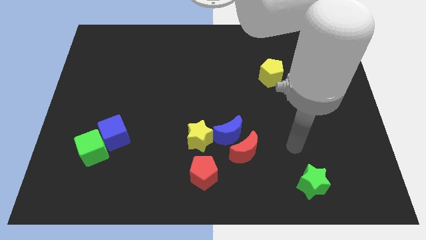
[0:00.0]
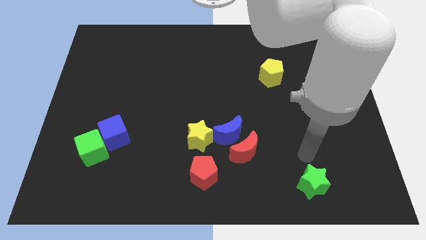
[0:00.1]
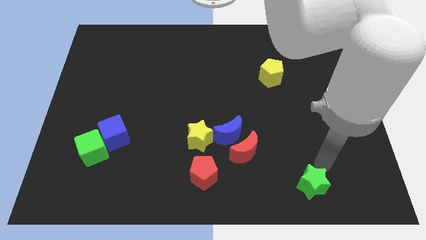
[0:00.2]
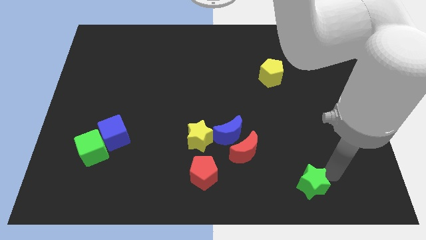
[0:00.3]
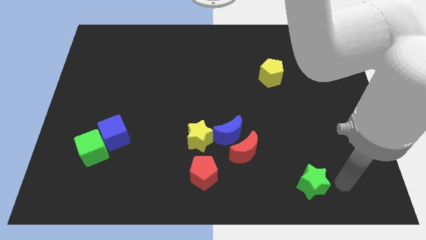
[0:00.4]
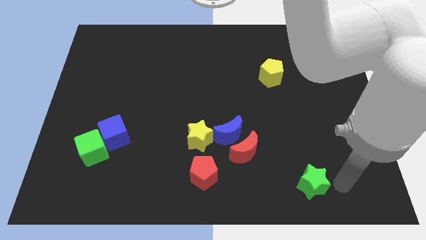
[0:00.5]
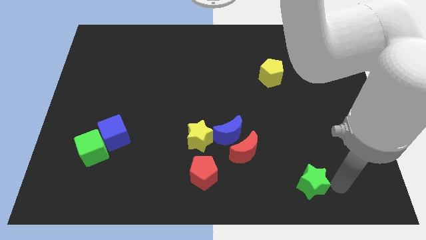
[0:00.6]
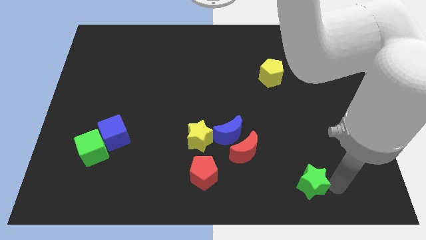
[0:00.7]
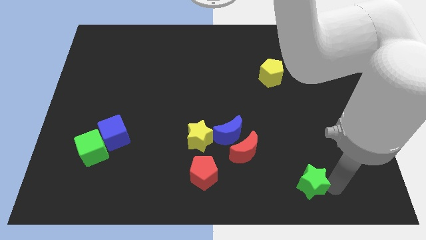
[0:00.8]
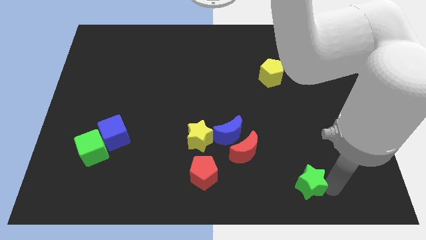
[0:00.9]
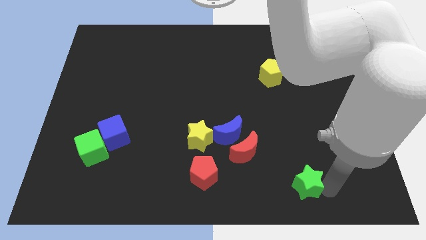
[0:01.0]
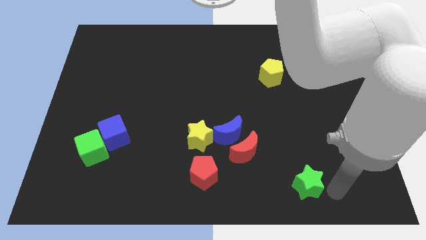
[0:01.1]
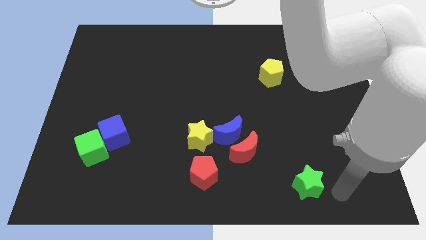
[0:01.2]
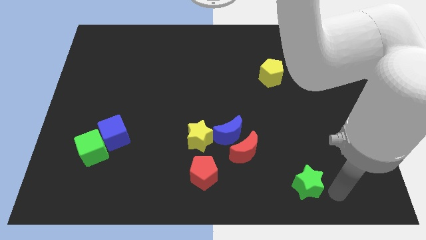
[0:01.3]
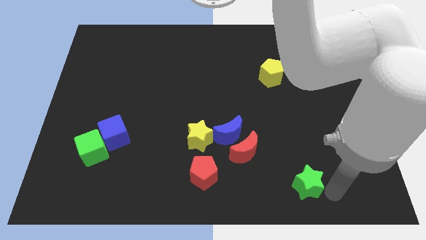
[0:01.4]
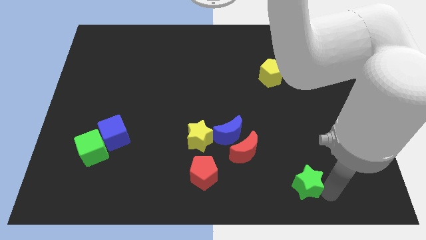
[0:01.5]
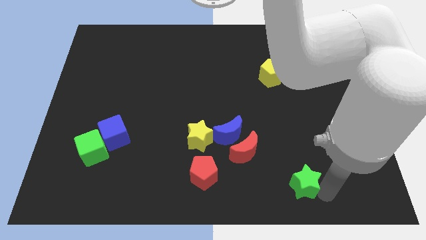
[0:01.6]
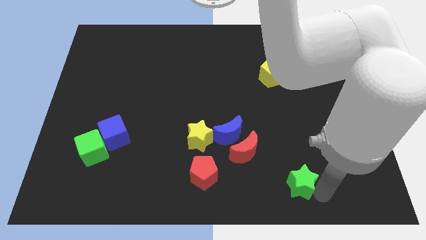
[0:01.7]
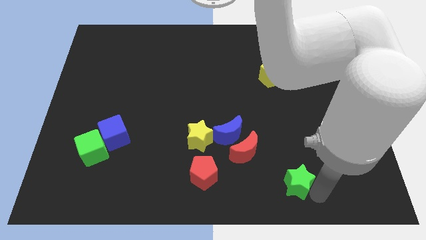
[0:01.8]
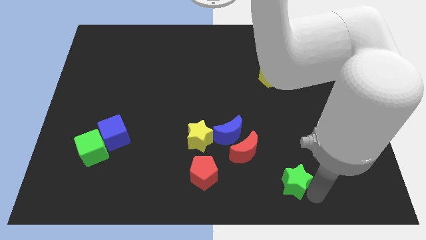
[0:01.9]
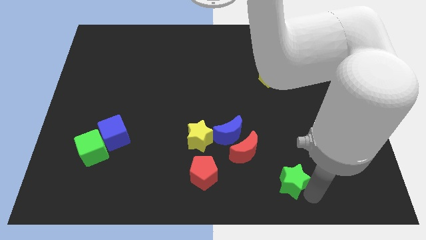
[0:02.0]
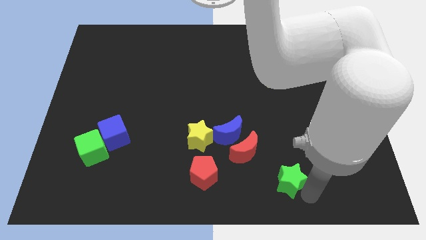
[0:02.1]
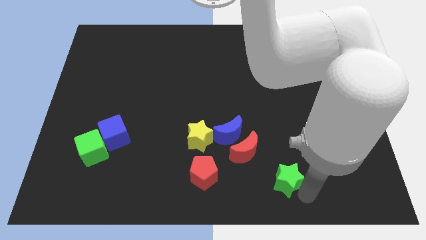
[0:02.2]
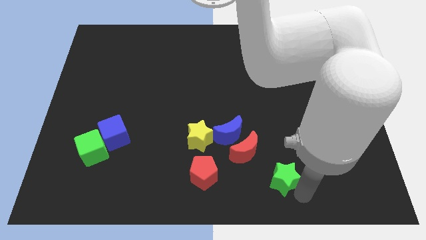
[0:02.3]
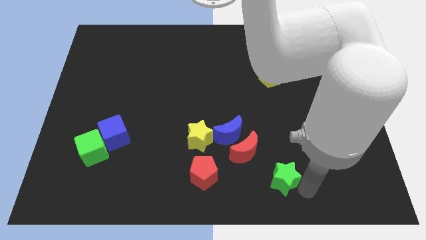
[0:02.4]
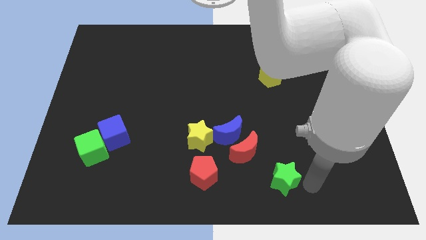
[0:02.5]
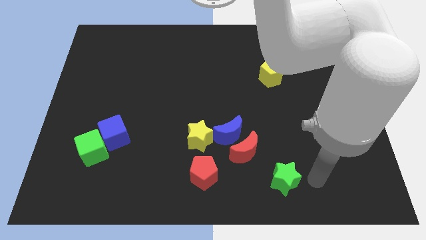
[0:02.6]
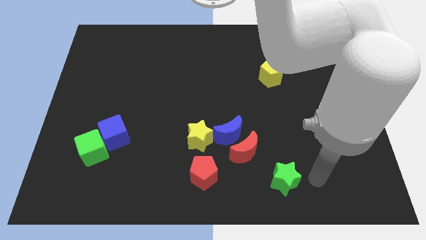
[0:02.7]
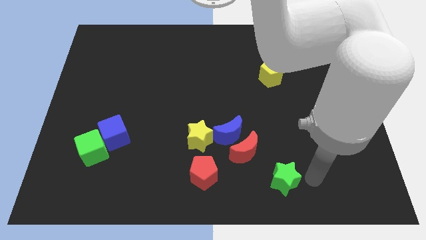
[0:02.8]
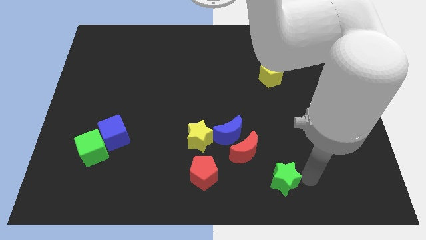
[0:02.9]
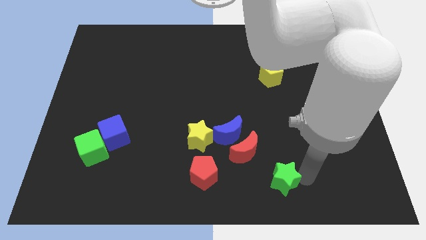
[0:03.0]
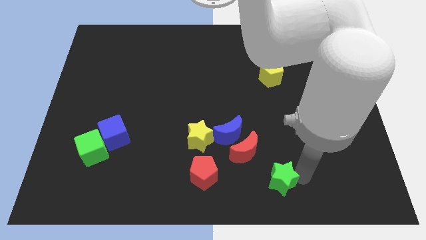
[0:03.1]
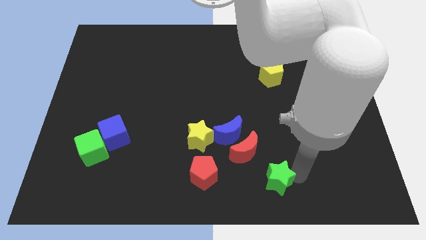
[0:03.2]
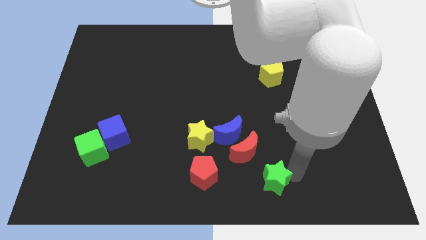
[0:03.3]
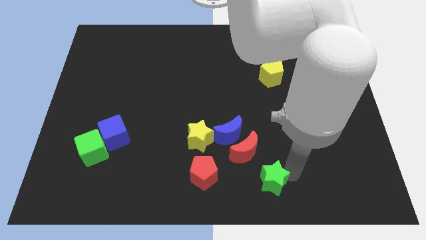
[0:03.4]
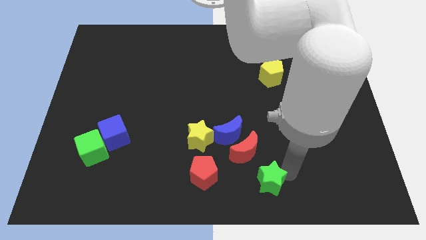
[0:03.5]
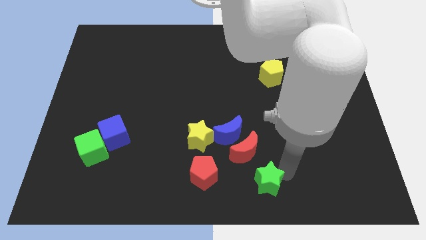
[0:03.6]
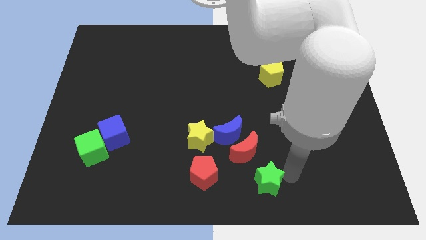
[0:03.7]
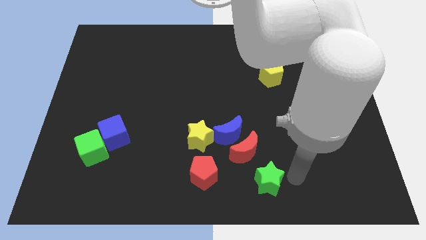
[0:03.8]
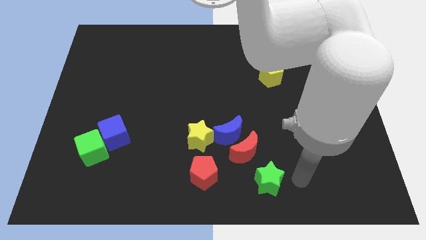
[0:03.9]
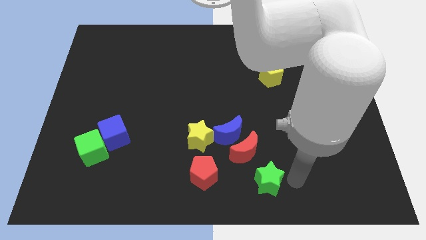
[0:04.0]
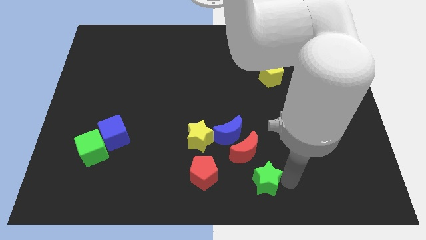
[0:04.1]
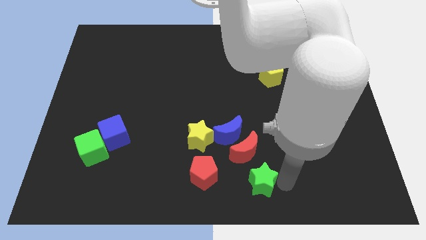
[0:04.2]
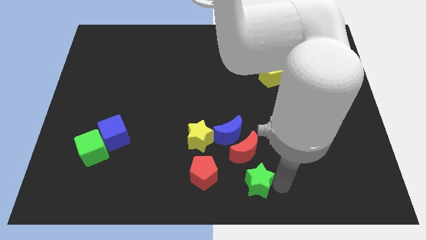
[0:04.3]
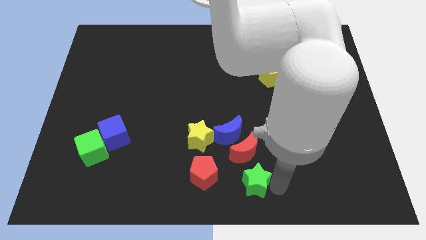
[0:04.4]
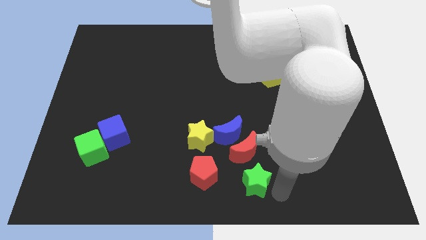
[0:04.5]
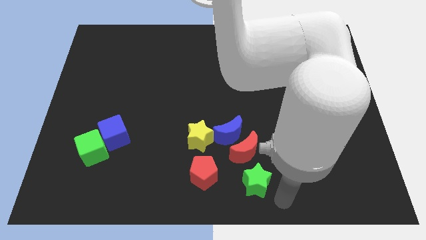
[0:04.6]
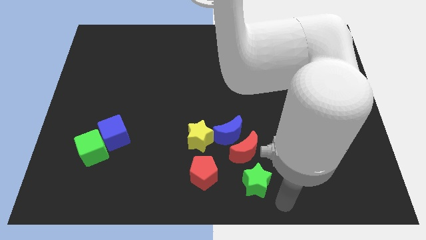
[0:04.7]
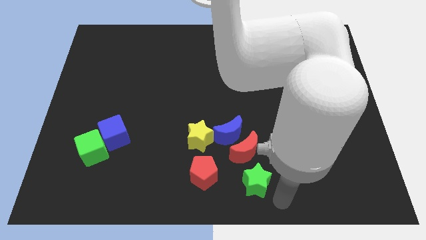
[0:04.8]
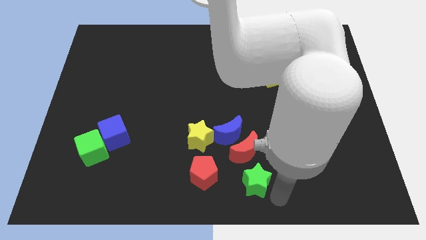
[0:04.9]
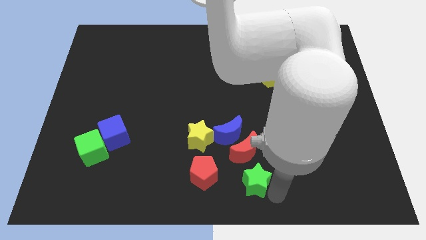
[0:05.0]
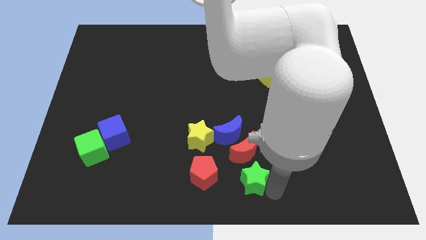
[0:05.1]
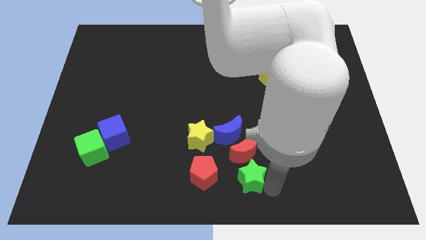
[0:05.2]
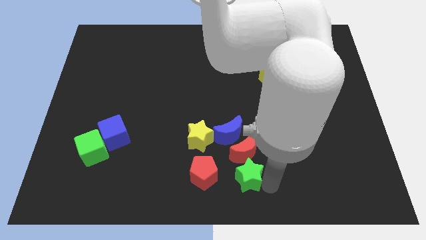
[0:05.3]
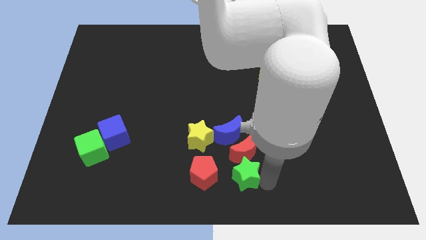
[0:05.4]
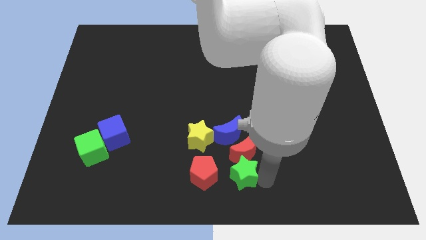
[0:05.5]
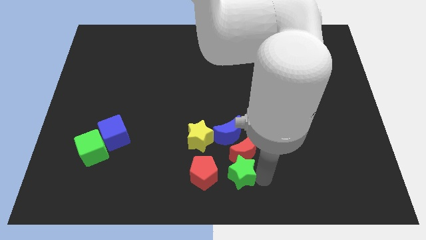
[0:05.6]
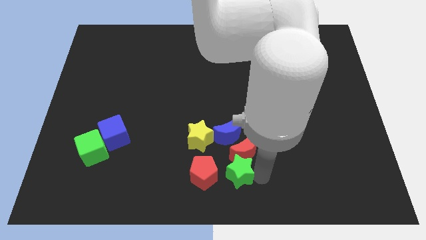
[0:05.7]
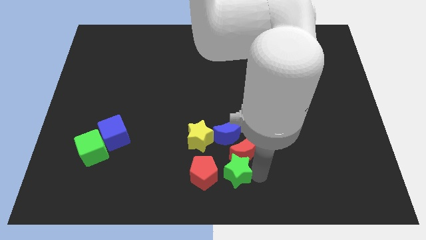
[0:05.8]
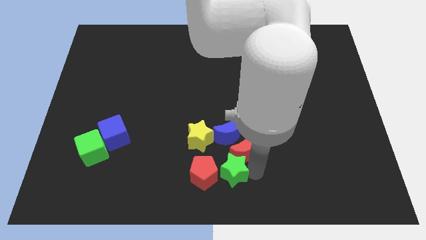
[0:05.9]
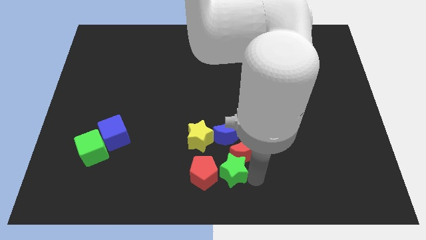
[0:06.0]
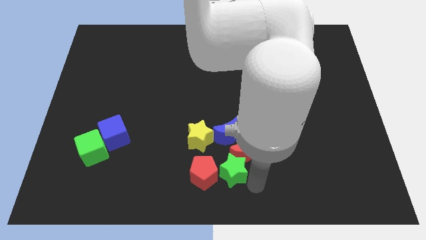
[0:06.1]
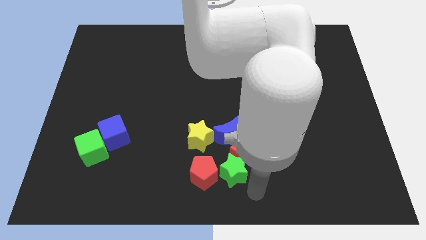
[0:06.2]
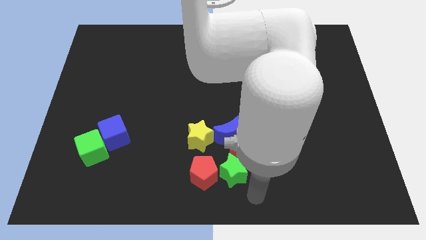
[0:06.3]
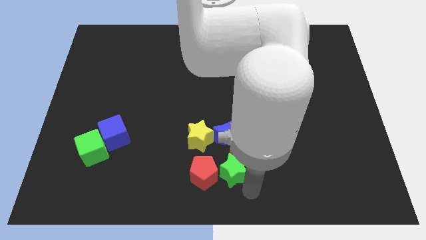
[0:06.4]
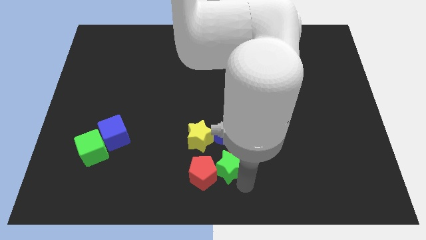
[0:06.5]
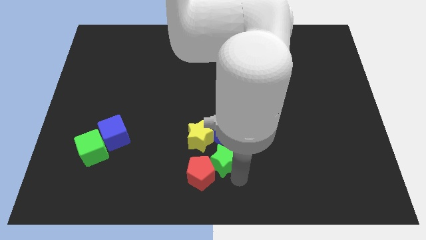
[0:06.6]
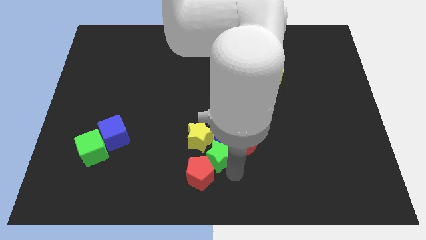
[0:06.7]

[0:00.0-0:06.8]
move the green star next to the yellow star

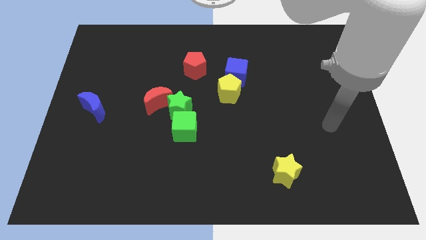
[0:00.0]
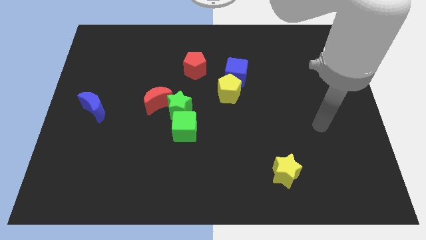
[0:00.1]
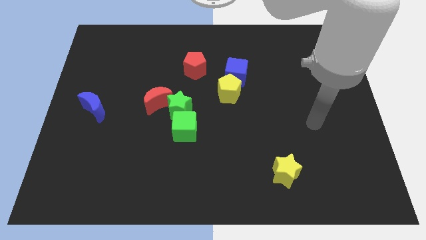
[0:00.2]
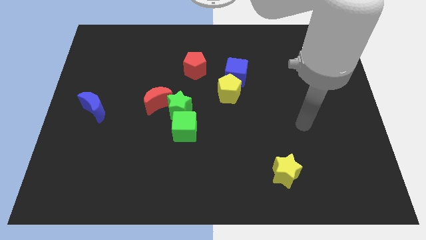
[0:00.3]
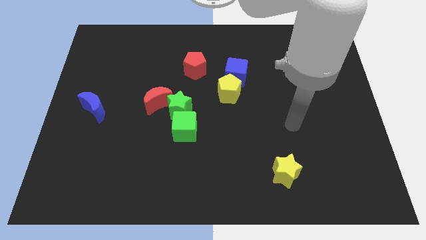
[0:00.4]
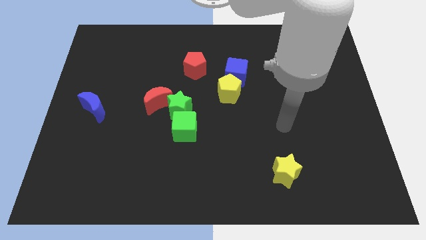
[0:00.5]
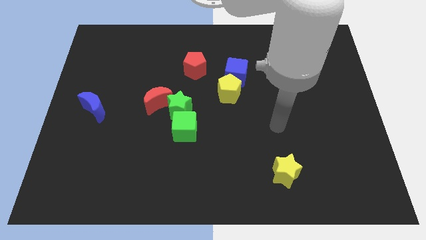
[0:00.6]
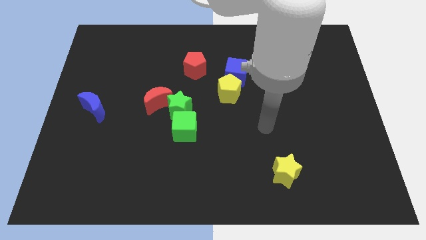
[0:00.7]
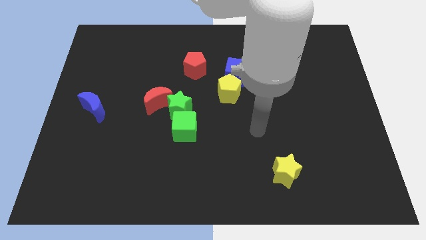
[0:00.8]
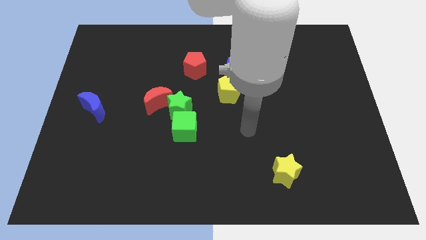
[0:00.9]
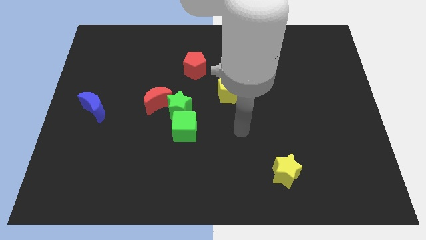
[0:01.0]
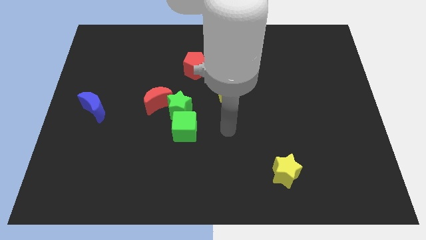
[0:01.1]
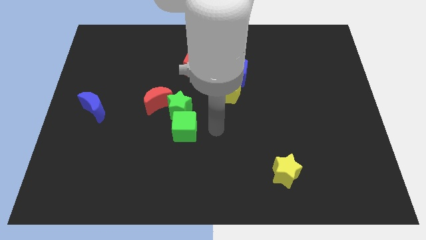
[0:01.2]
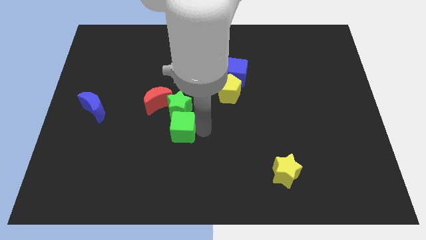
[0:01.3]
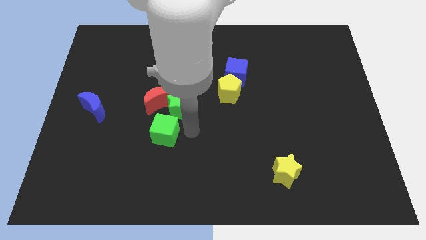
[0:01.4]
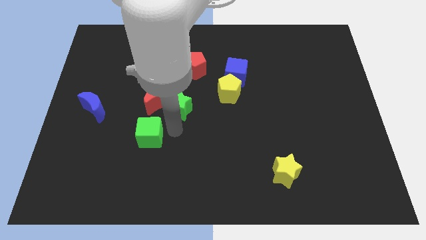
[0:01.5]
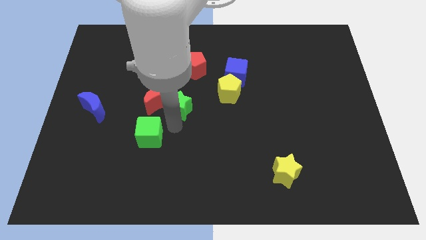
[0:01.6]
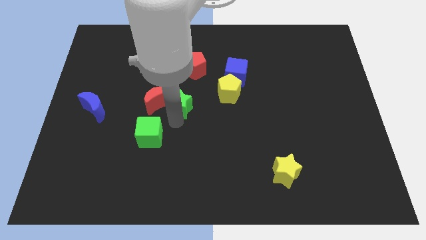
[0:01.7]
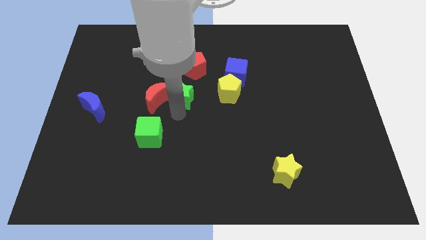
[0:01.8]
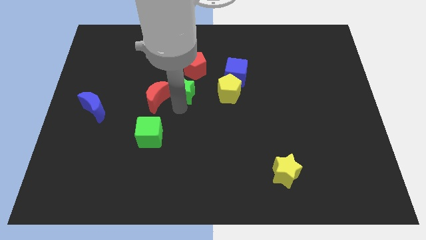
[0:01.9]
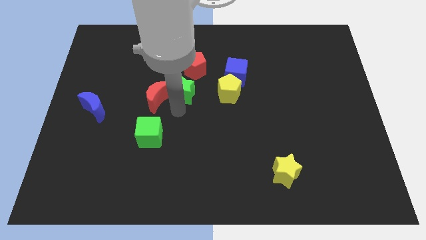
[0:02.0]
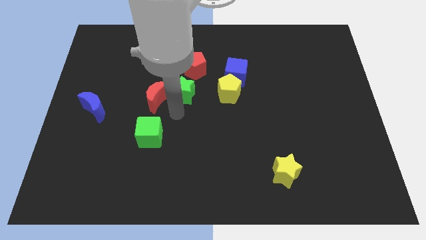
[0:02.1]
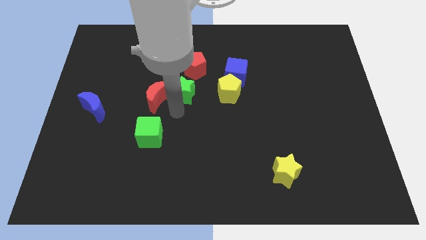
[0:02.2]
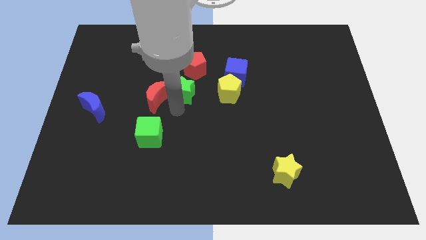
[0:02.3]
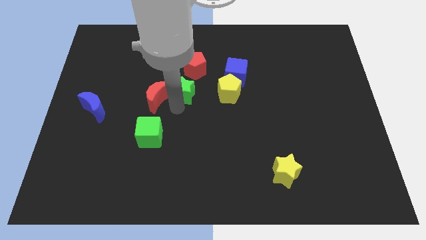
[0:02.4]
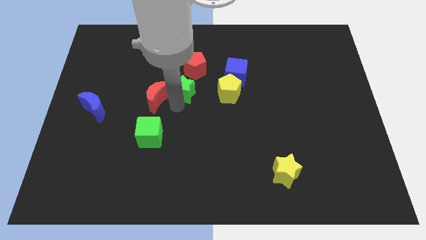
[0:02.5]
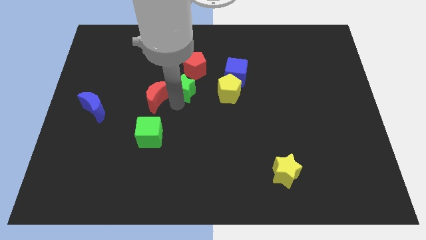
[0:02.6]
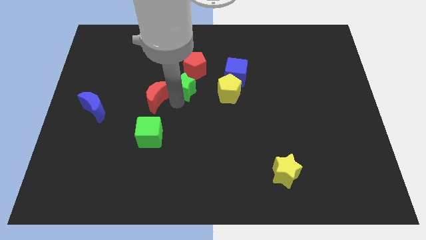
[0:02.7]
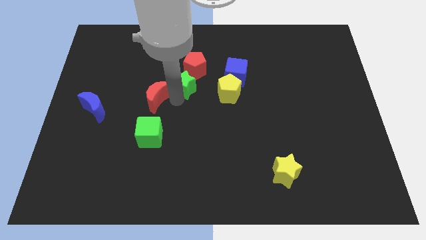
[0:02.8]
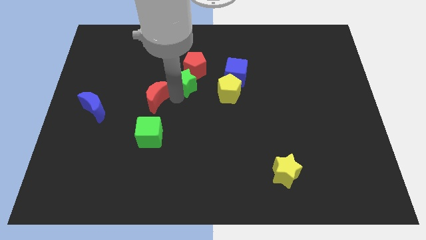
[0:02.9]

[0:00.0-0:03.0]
slide the green star close to the red pentagon
